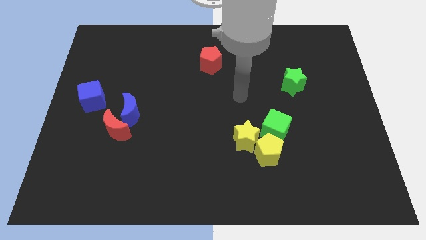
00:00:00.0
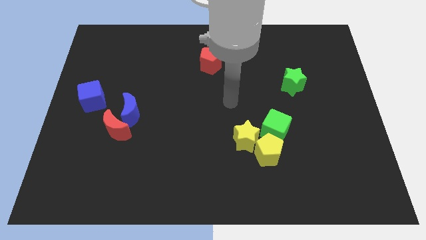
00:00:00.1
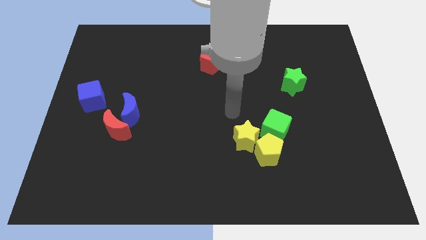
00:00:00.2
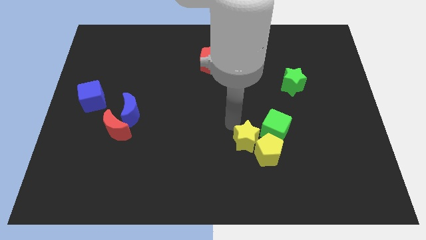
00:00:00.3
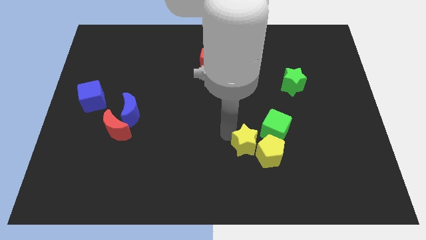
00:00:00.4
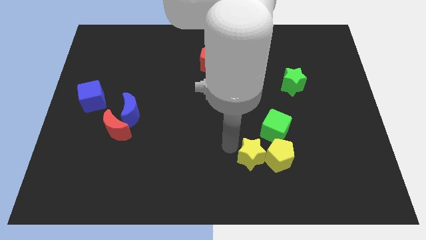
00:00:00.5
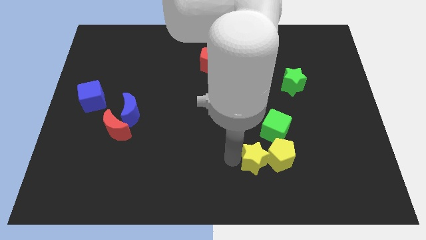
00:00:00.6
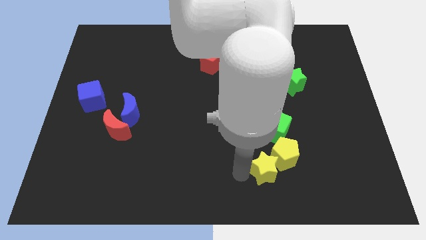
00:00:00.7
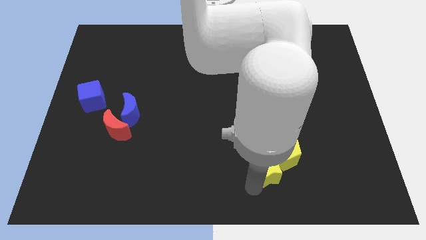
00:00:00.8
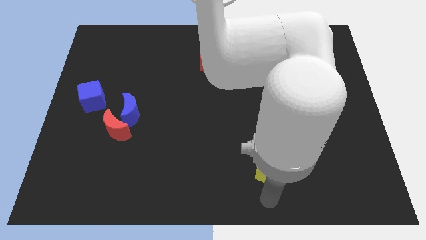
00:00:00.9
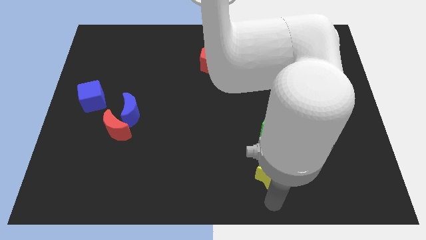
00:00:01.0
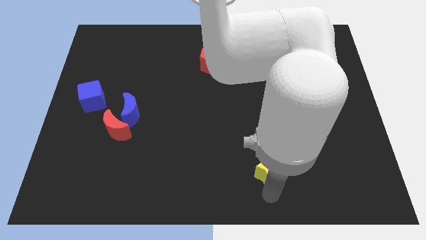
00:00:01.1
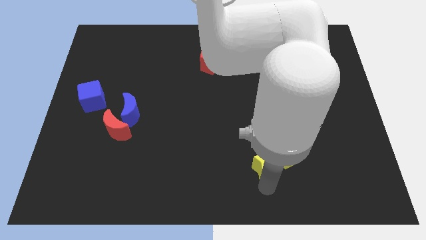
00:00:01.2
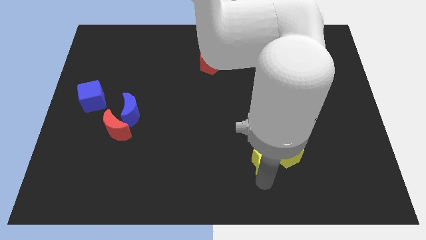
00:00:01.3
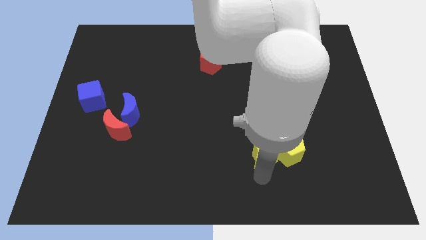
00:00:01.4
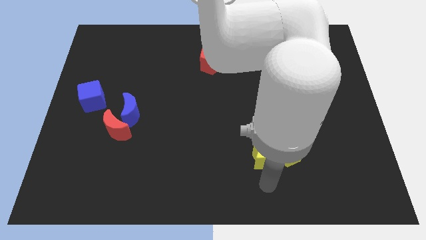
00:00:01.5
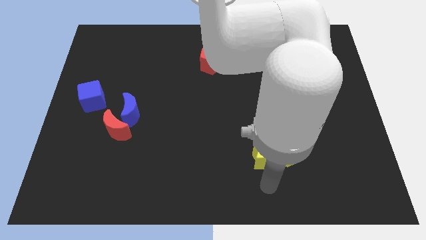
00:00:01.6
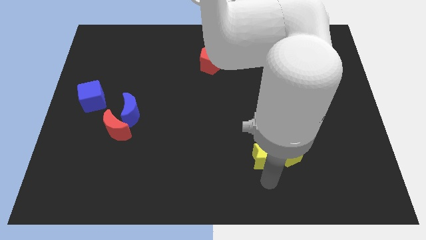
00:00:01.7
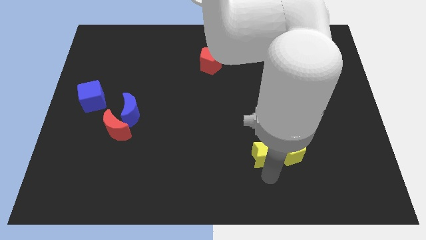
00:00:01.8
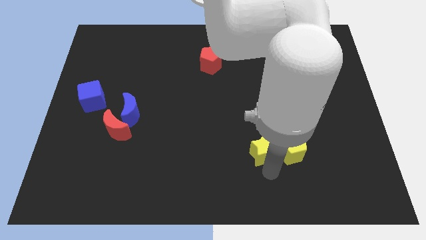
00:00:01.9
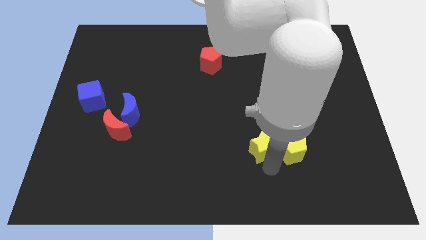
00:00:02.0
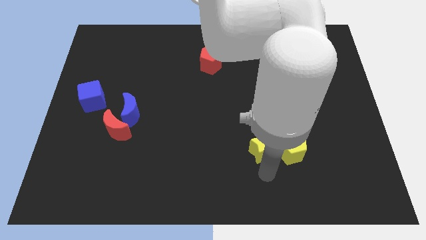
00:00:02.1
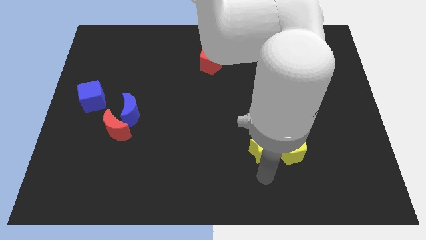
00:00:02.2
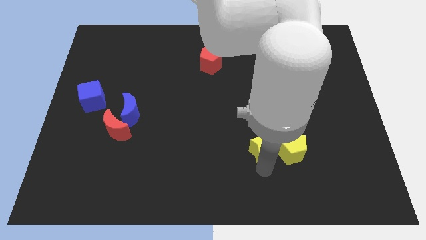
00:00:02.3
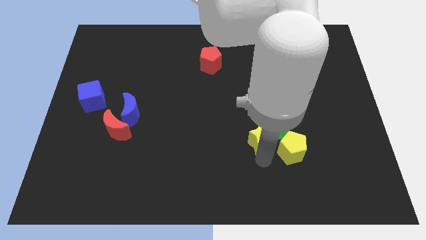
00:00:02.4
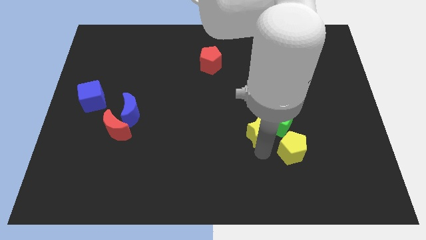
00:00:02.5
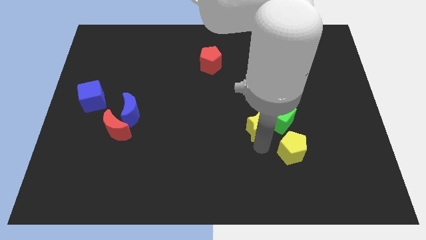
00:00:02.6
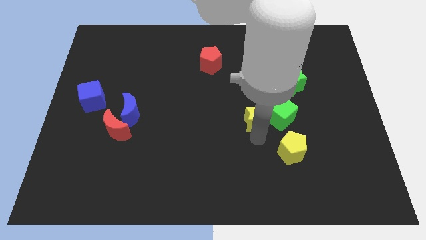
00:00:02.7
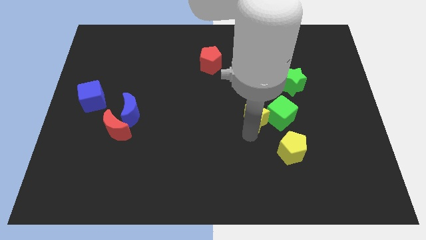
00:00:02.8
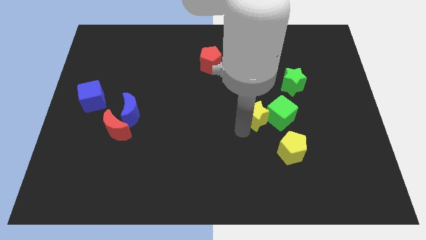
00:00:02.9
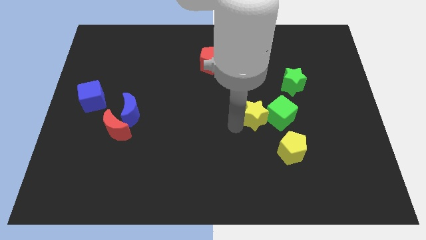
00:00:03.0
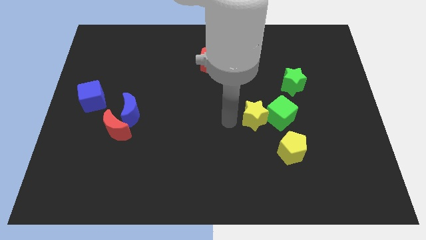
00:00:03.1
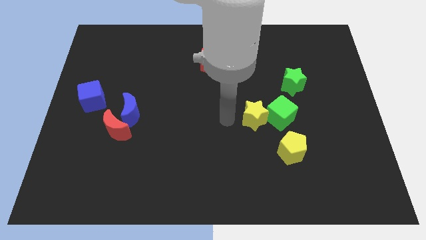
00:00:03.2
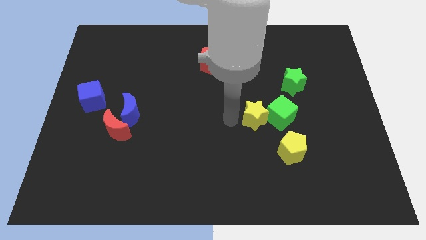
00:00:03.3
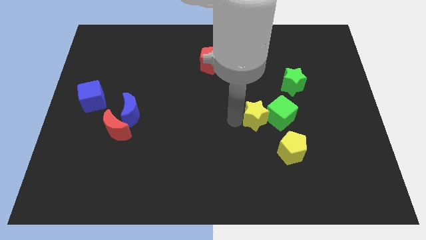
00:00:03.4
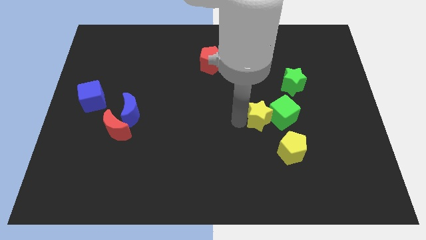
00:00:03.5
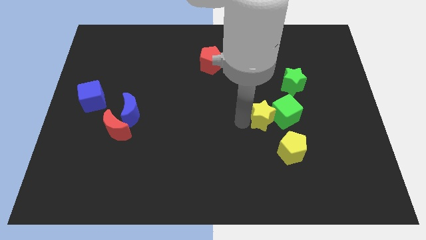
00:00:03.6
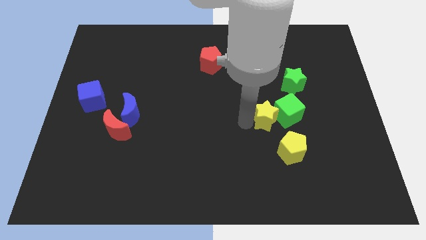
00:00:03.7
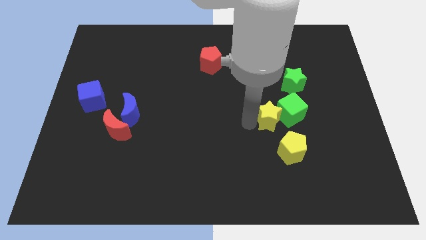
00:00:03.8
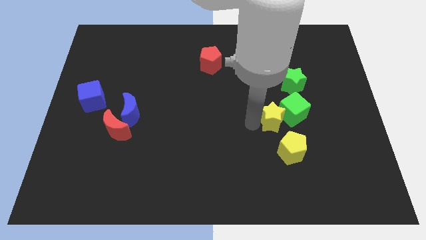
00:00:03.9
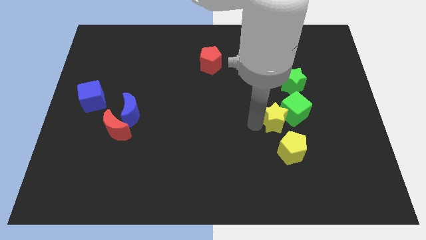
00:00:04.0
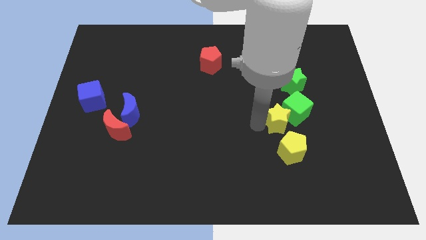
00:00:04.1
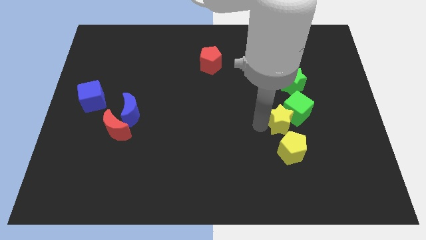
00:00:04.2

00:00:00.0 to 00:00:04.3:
slightly push the yellow star right

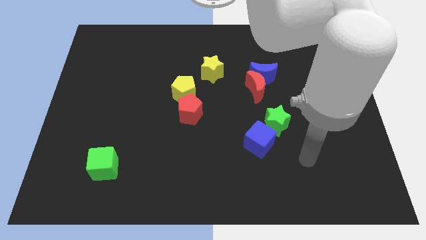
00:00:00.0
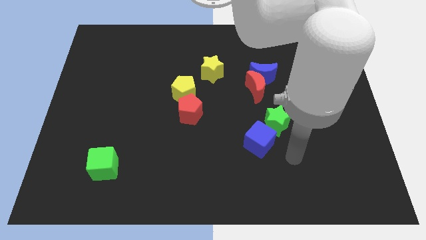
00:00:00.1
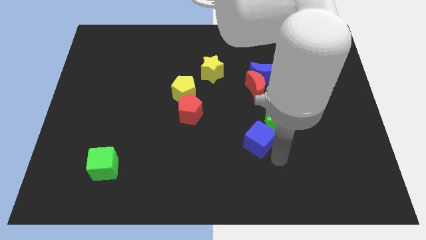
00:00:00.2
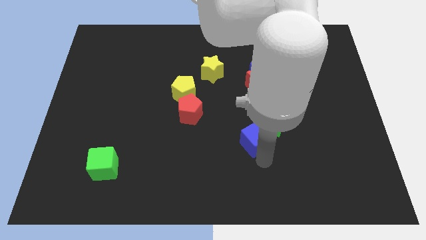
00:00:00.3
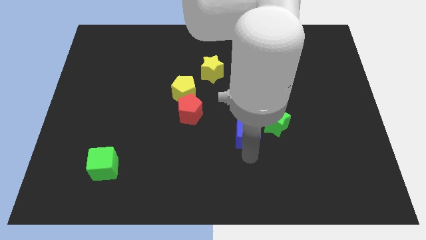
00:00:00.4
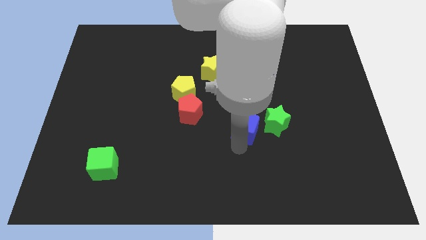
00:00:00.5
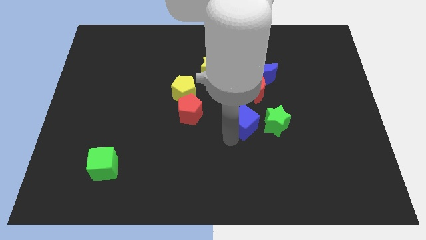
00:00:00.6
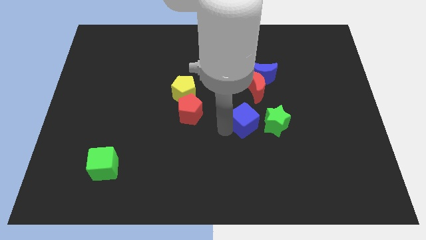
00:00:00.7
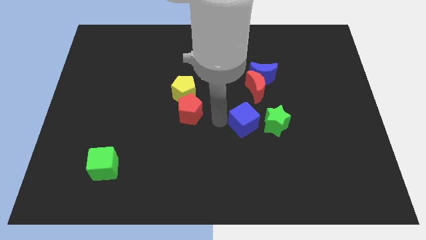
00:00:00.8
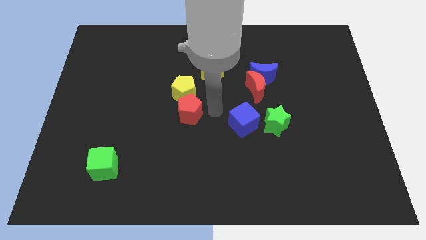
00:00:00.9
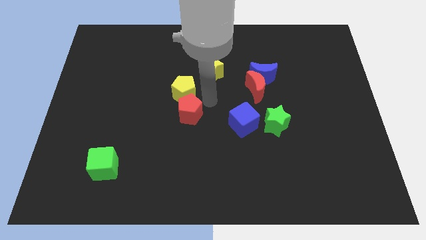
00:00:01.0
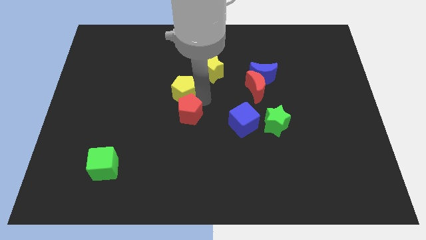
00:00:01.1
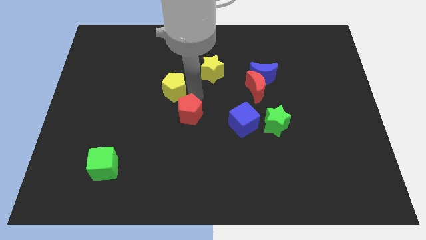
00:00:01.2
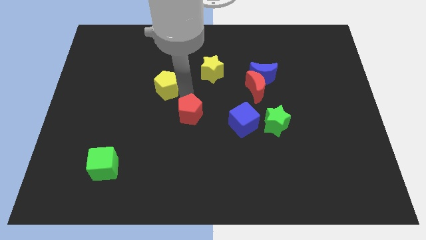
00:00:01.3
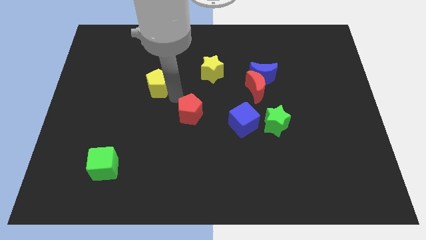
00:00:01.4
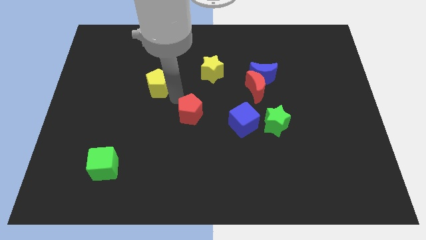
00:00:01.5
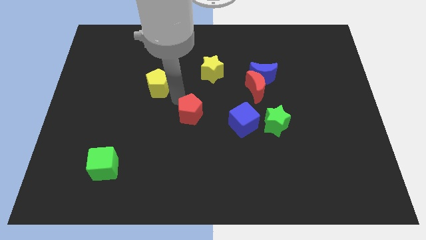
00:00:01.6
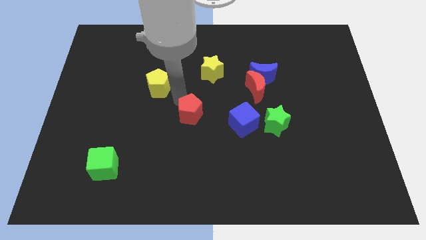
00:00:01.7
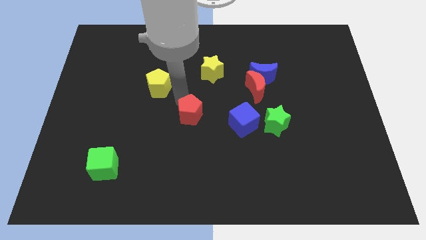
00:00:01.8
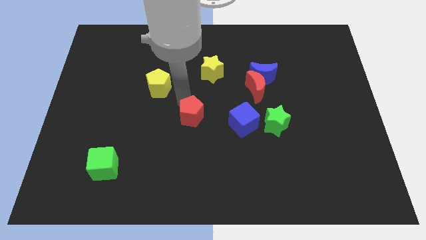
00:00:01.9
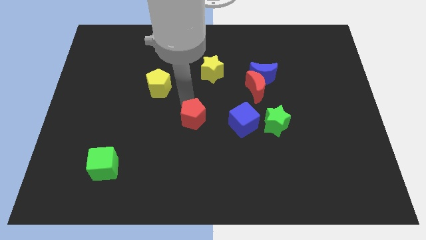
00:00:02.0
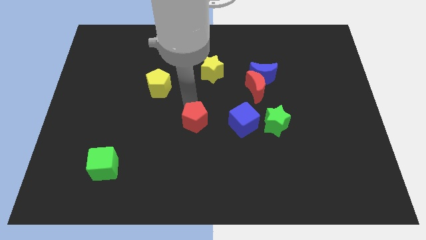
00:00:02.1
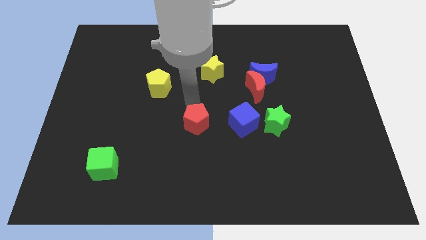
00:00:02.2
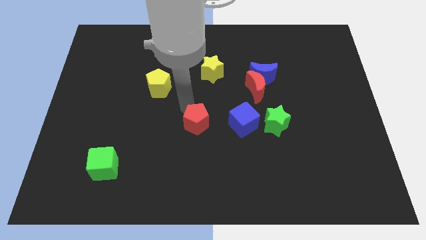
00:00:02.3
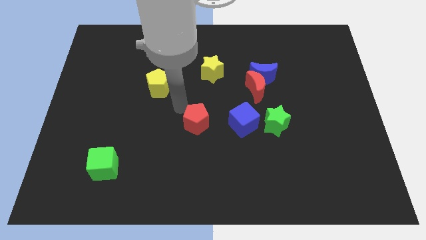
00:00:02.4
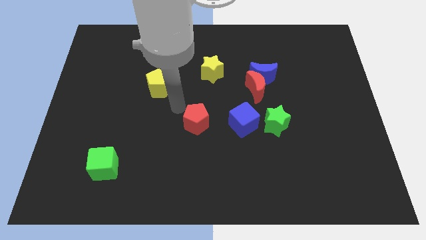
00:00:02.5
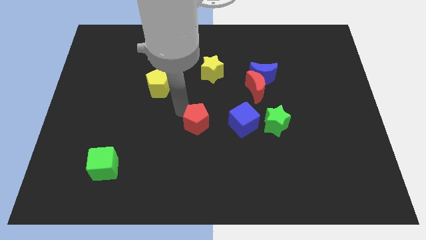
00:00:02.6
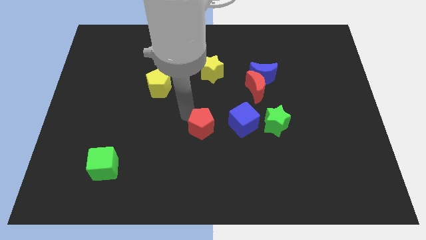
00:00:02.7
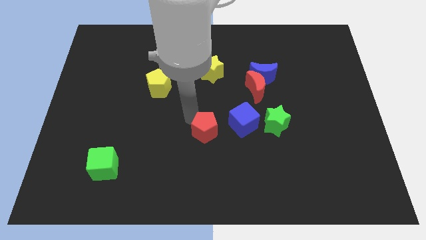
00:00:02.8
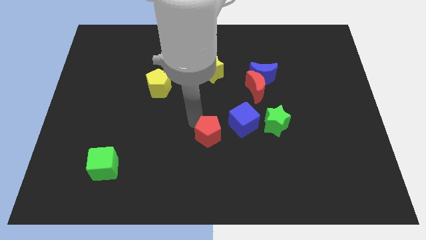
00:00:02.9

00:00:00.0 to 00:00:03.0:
slightly slide the red pentagon down and to the right diagonally

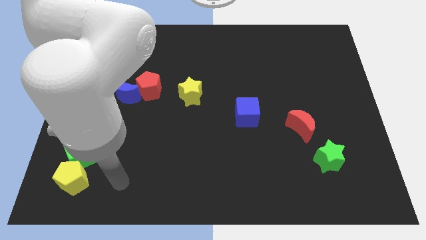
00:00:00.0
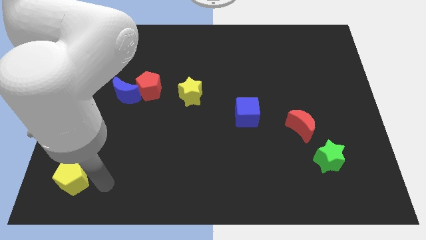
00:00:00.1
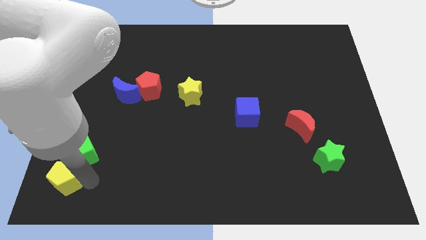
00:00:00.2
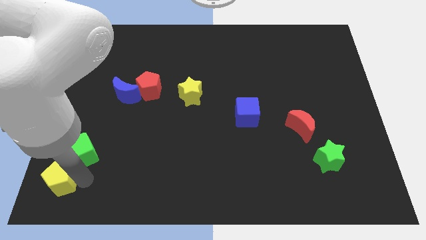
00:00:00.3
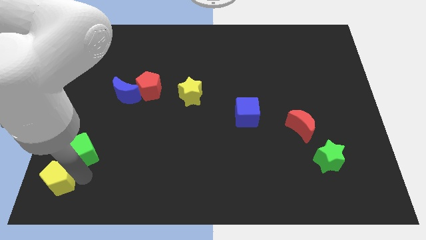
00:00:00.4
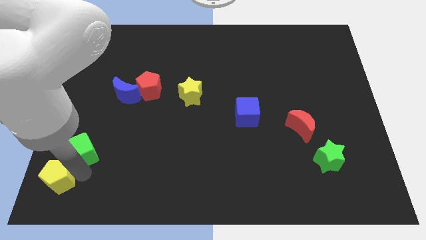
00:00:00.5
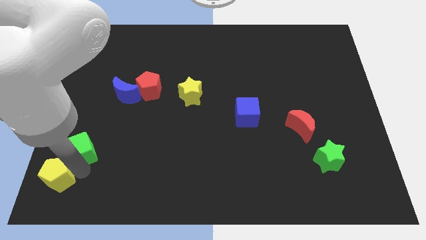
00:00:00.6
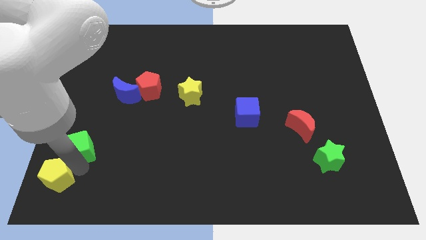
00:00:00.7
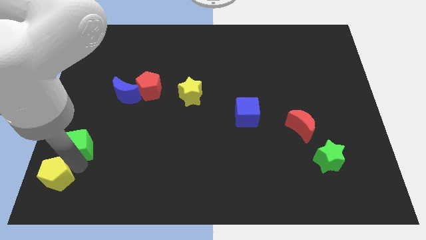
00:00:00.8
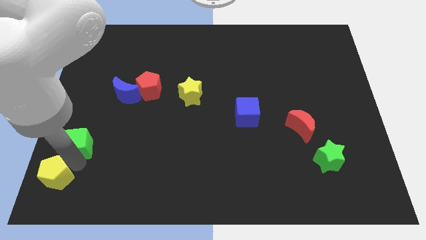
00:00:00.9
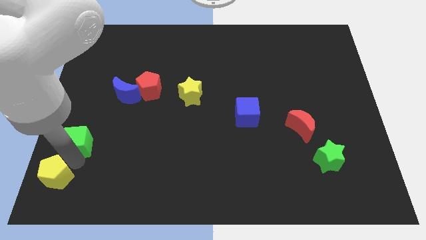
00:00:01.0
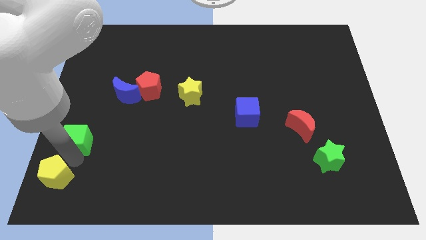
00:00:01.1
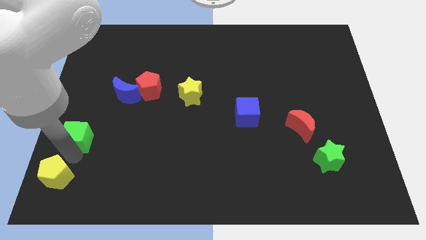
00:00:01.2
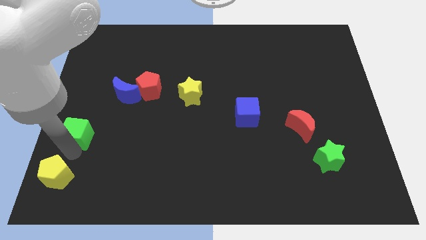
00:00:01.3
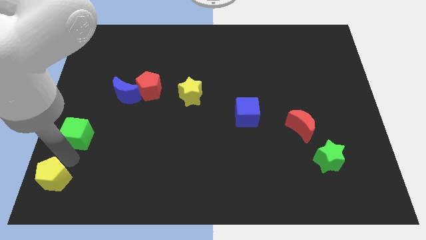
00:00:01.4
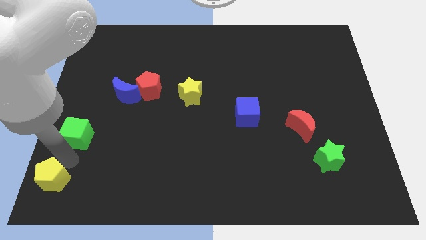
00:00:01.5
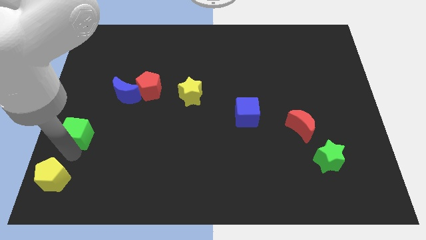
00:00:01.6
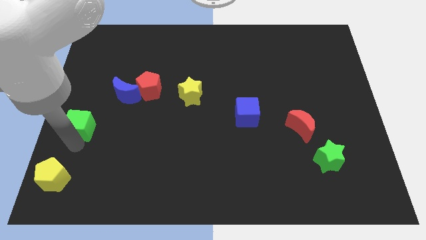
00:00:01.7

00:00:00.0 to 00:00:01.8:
slightly slide the green cube upwards
